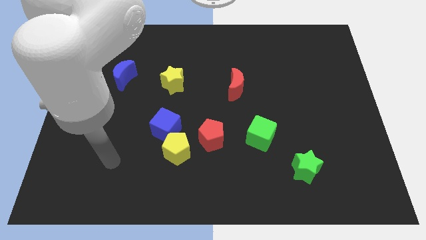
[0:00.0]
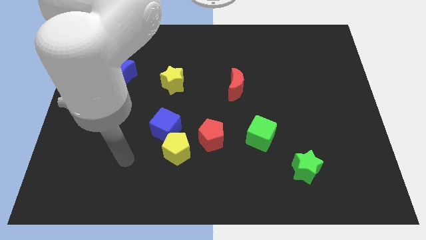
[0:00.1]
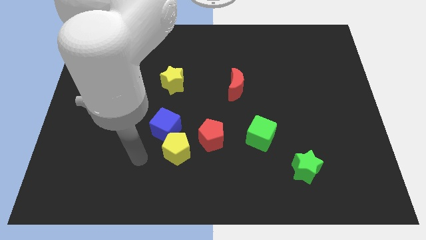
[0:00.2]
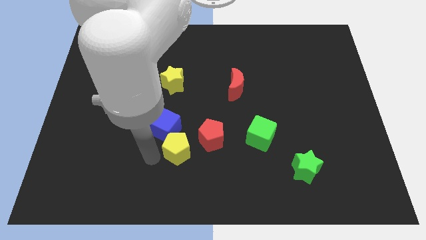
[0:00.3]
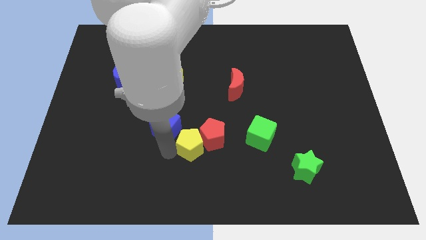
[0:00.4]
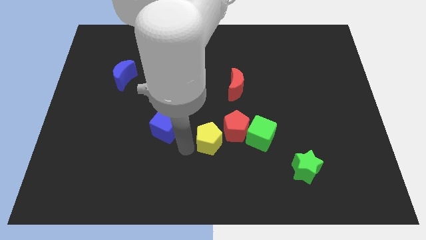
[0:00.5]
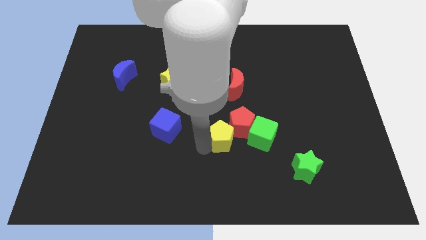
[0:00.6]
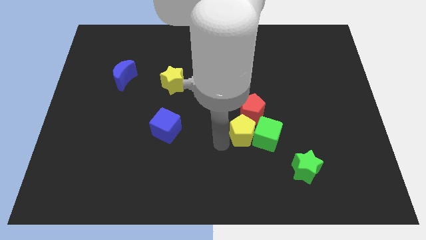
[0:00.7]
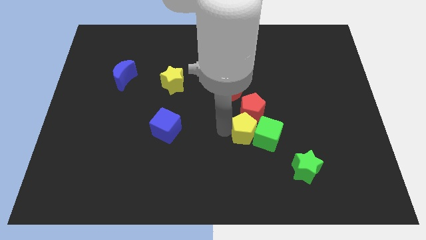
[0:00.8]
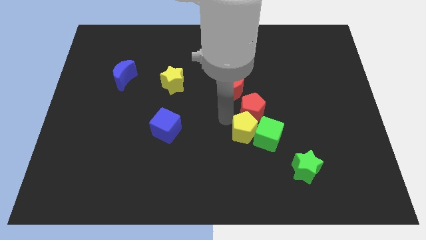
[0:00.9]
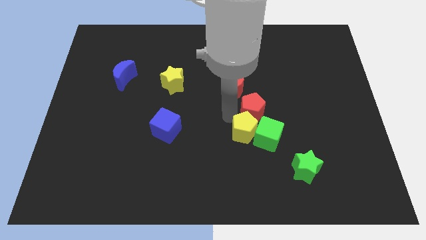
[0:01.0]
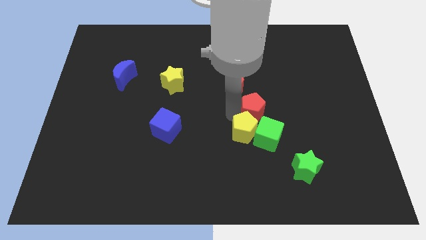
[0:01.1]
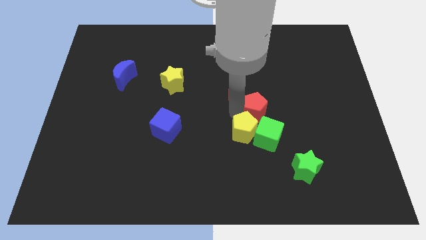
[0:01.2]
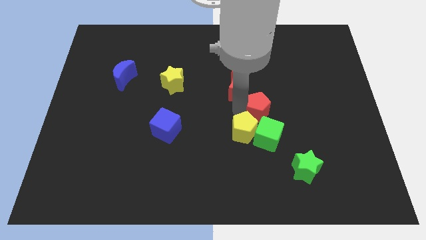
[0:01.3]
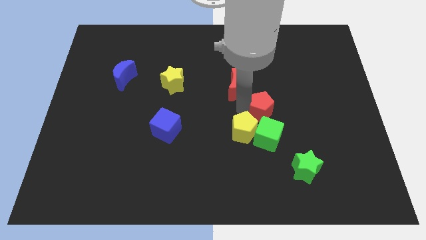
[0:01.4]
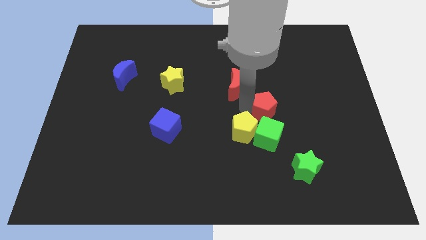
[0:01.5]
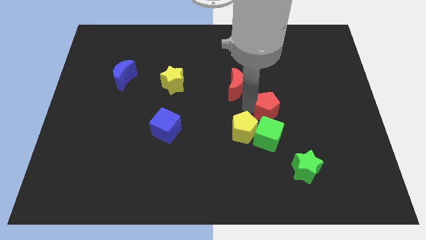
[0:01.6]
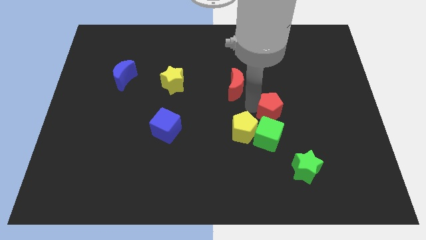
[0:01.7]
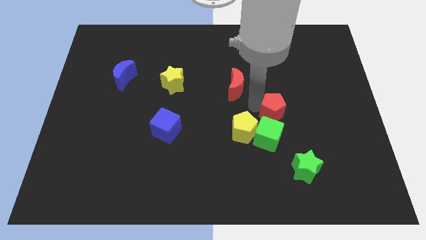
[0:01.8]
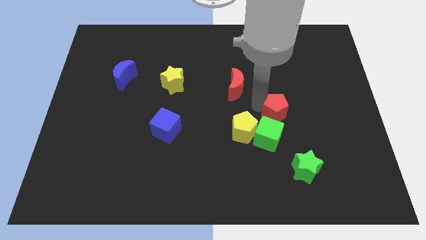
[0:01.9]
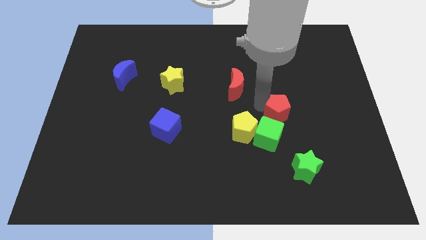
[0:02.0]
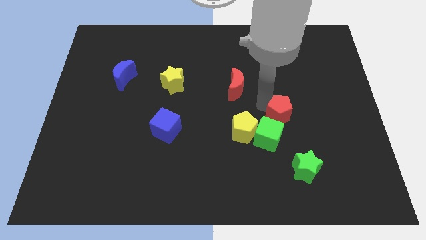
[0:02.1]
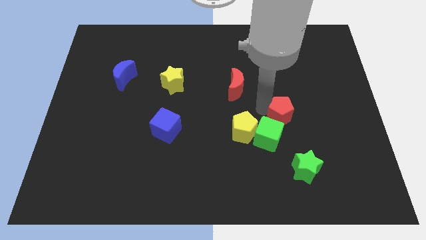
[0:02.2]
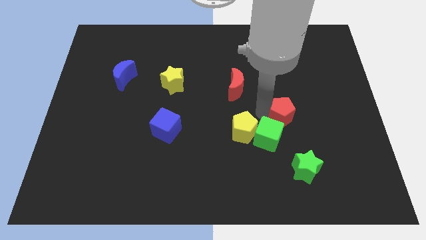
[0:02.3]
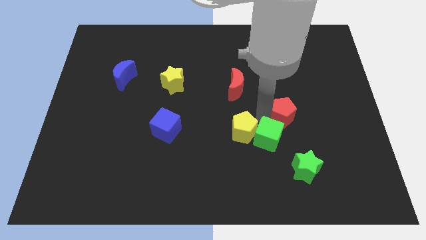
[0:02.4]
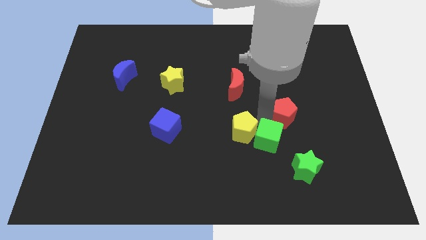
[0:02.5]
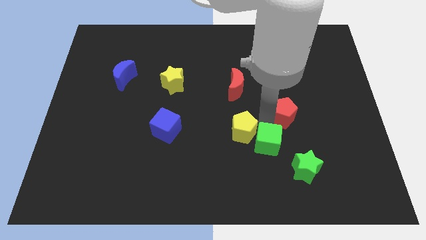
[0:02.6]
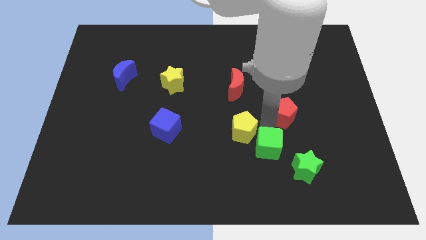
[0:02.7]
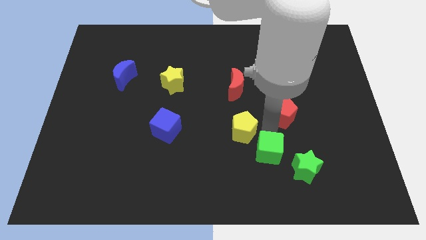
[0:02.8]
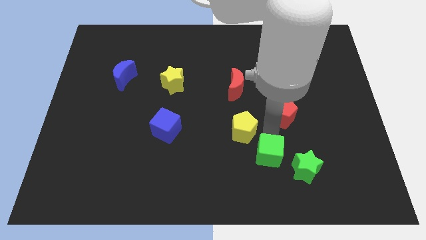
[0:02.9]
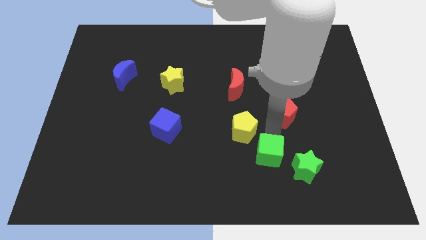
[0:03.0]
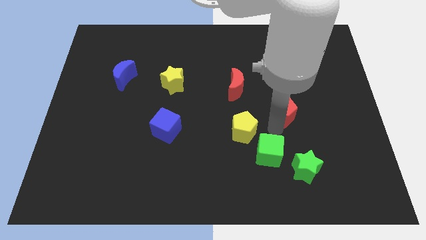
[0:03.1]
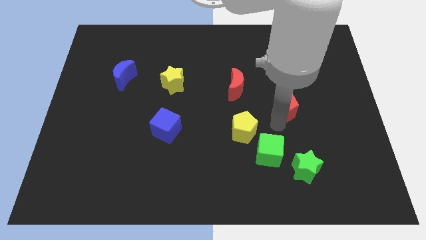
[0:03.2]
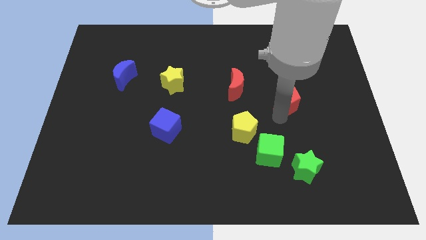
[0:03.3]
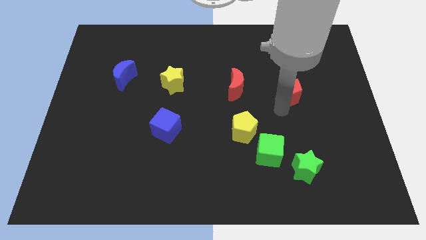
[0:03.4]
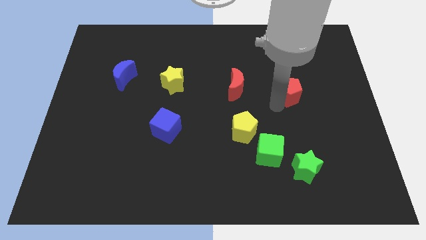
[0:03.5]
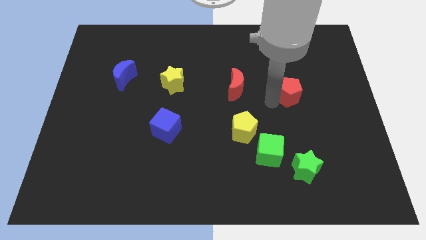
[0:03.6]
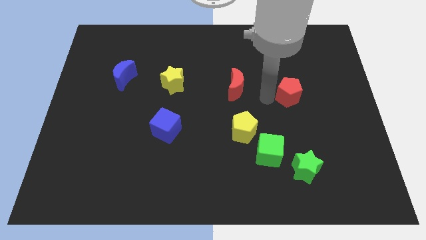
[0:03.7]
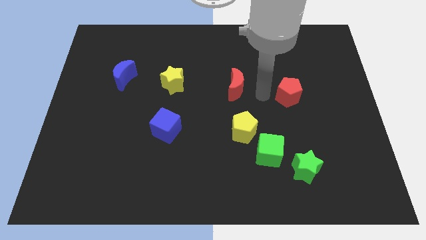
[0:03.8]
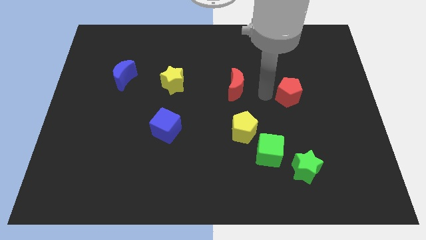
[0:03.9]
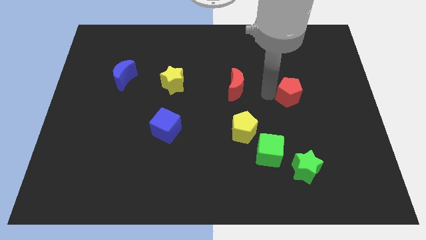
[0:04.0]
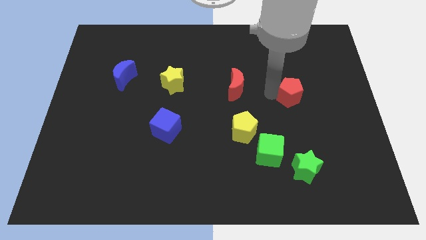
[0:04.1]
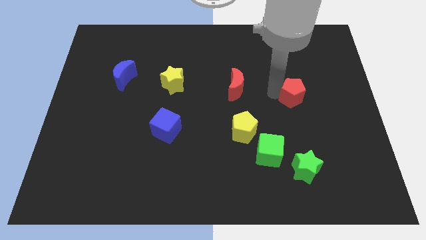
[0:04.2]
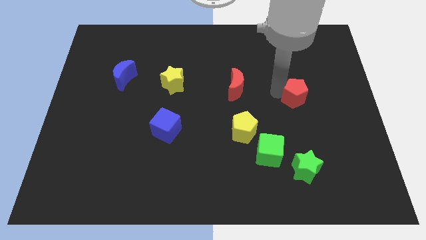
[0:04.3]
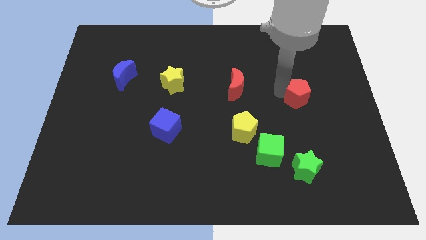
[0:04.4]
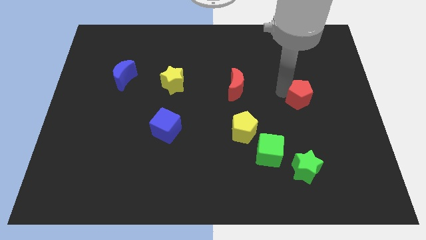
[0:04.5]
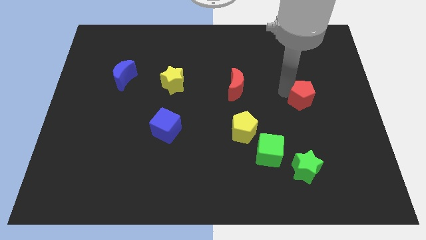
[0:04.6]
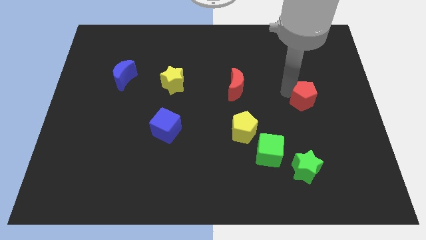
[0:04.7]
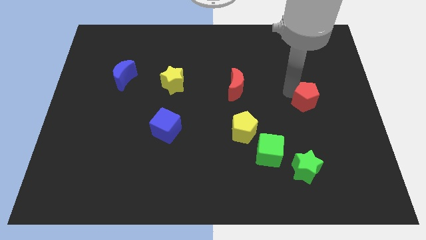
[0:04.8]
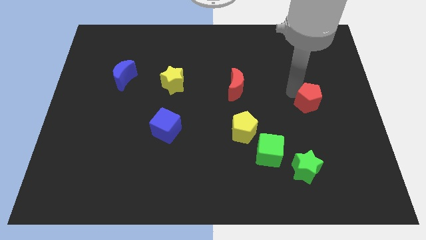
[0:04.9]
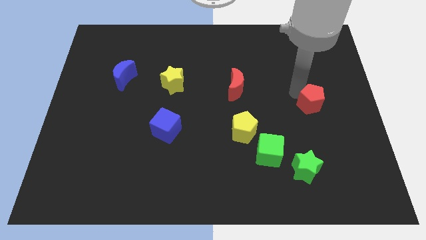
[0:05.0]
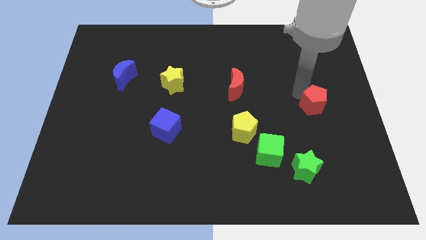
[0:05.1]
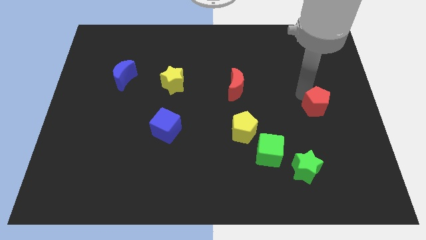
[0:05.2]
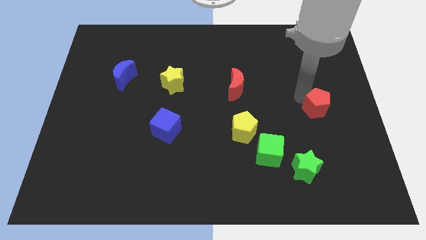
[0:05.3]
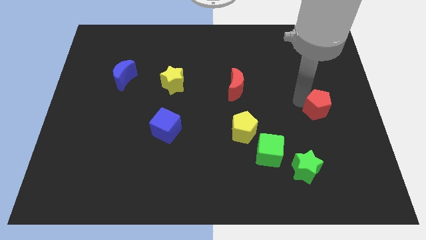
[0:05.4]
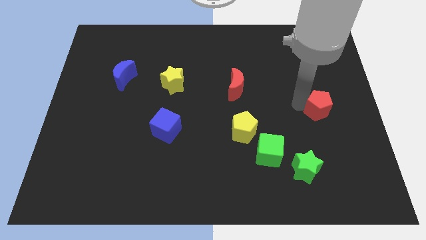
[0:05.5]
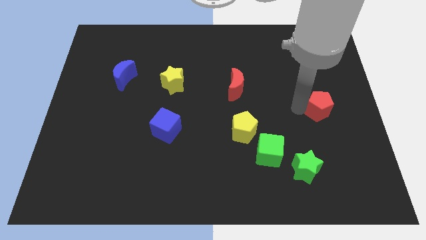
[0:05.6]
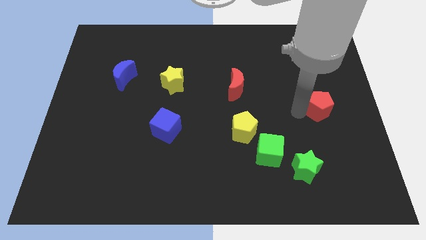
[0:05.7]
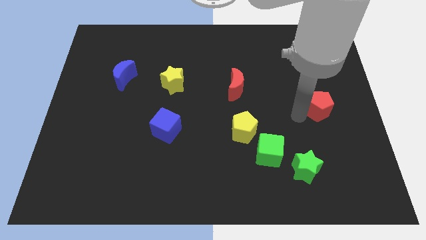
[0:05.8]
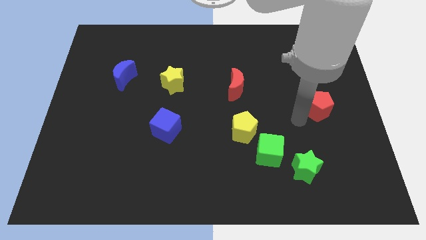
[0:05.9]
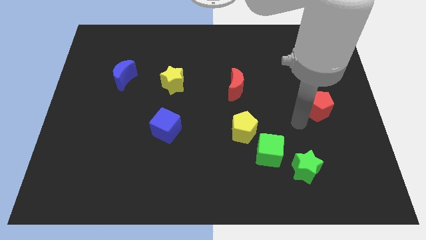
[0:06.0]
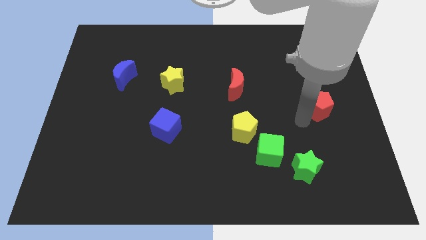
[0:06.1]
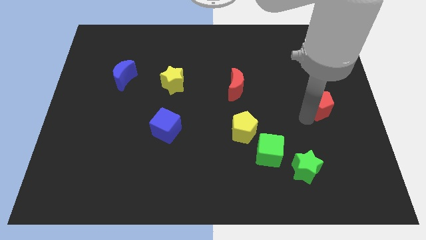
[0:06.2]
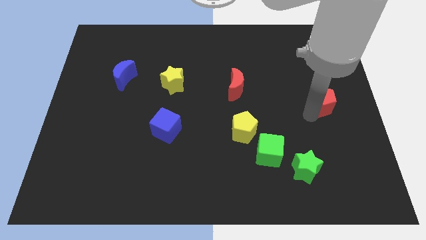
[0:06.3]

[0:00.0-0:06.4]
move the red pentagon to the right side

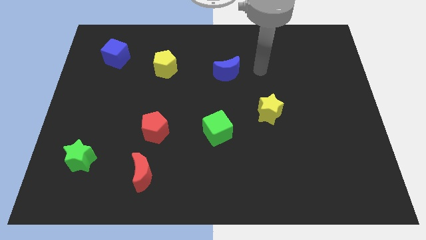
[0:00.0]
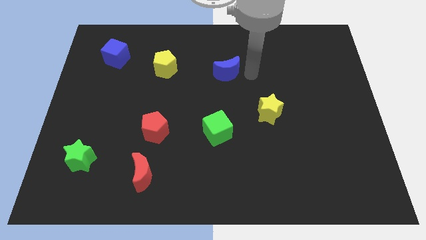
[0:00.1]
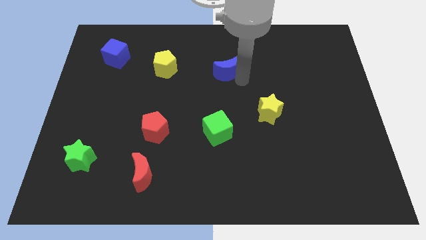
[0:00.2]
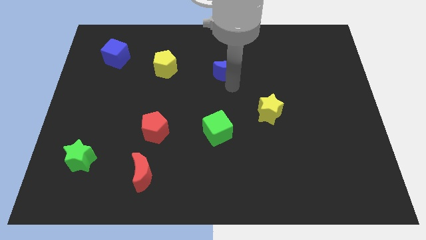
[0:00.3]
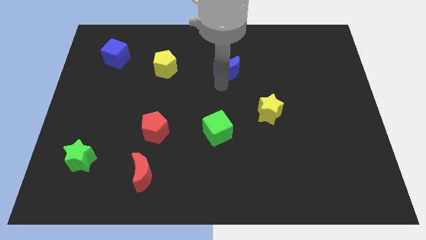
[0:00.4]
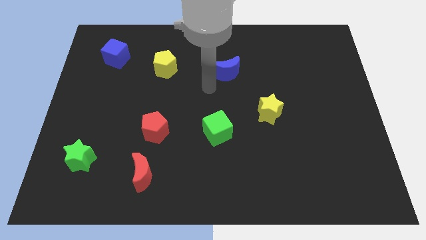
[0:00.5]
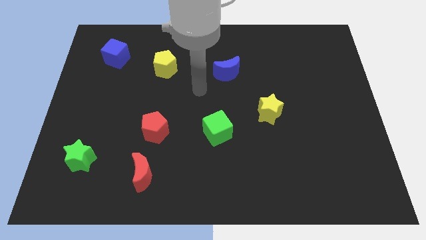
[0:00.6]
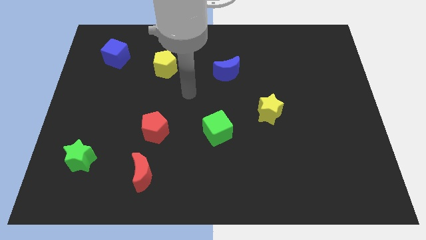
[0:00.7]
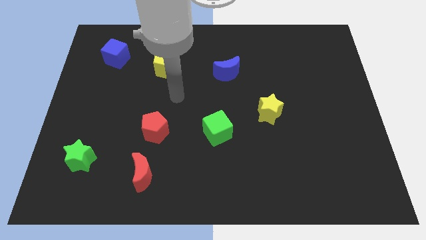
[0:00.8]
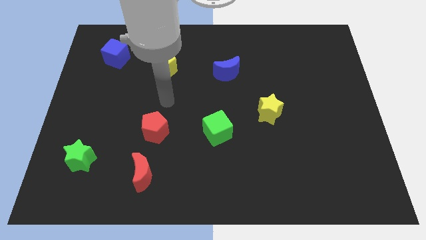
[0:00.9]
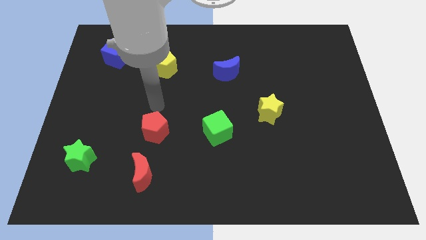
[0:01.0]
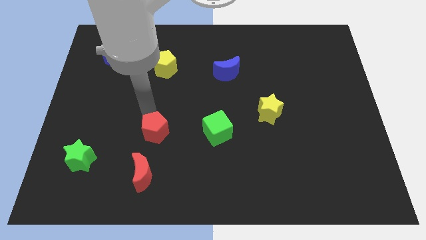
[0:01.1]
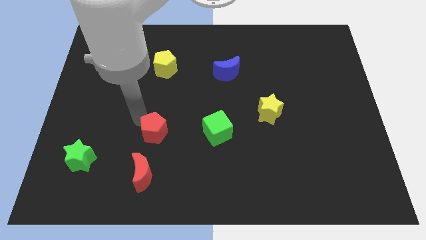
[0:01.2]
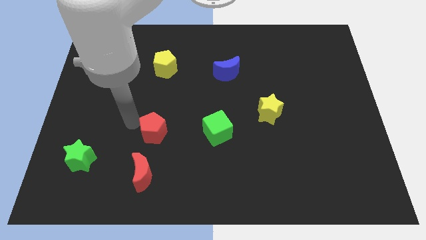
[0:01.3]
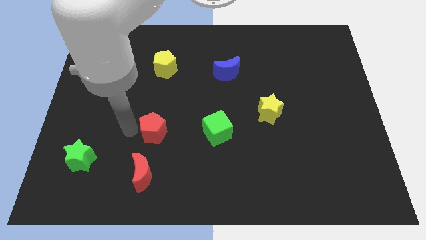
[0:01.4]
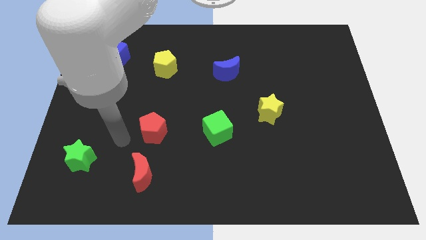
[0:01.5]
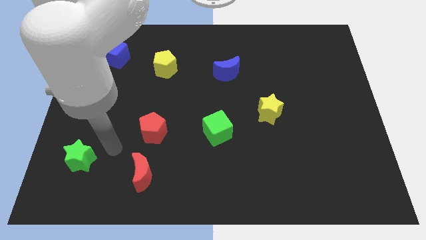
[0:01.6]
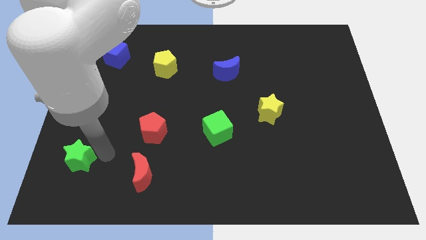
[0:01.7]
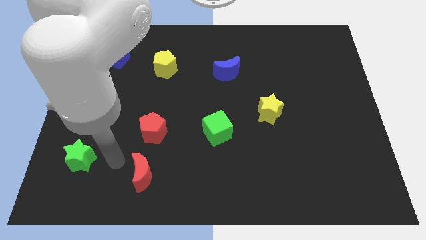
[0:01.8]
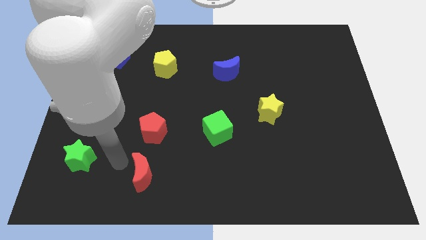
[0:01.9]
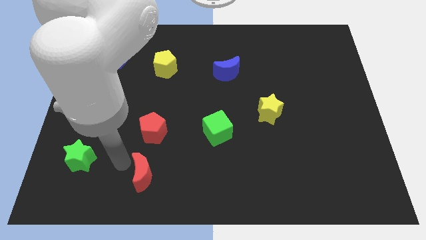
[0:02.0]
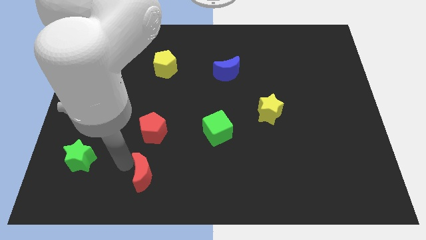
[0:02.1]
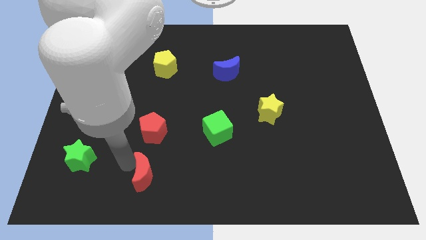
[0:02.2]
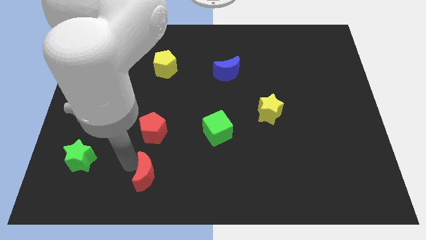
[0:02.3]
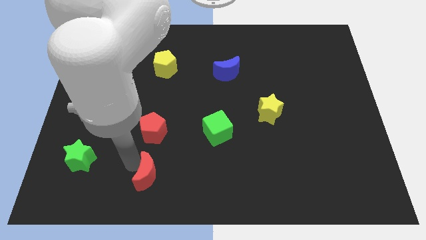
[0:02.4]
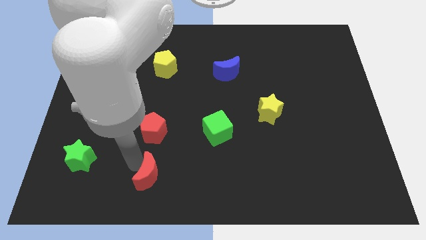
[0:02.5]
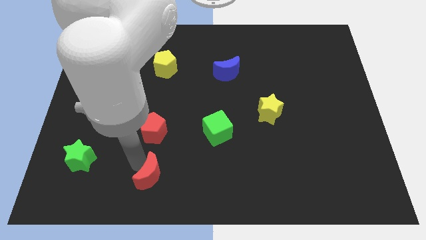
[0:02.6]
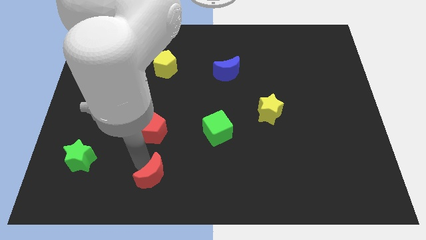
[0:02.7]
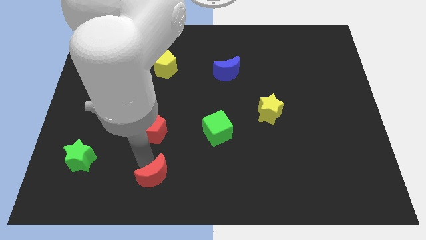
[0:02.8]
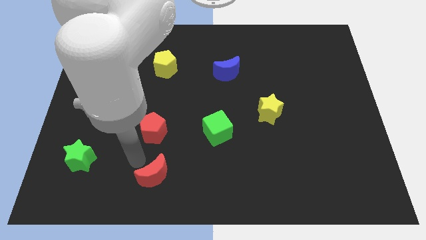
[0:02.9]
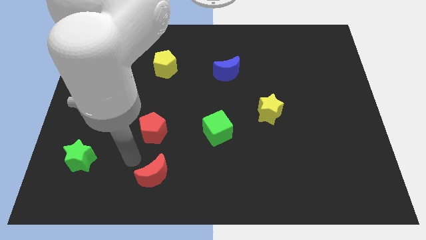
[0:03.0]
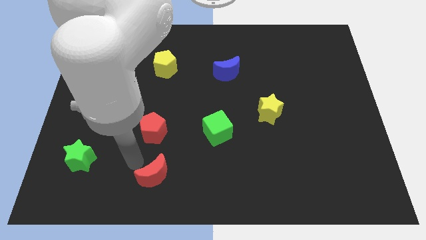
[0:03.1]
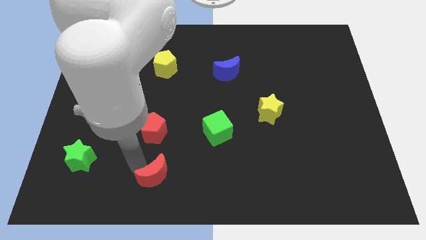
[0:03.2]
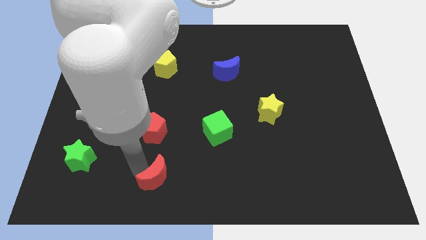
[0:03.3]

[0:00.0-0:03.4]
put the red moon to the bottom
